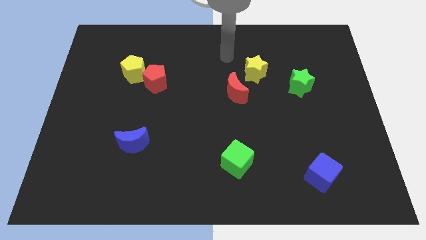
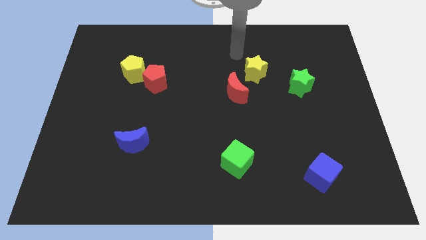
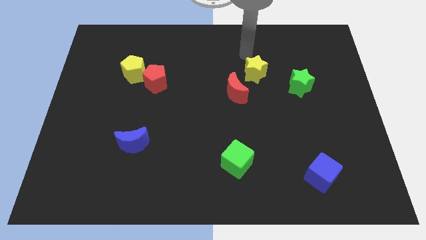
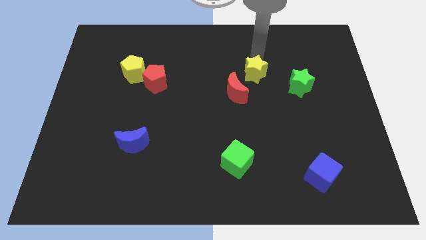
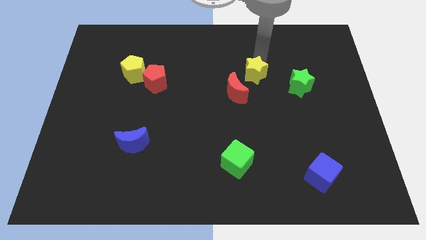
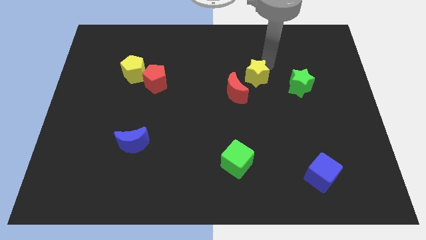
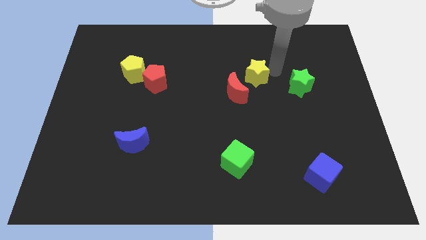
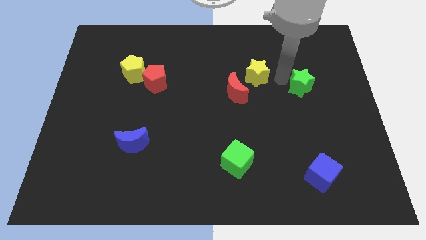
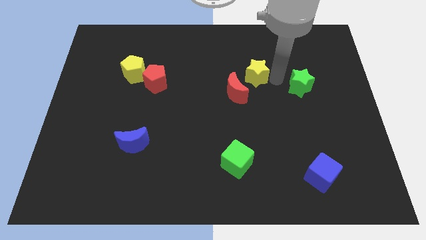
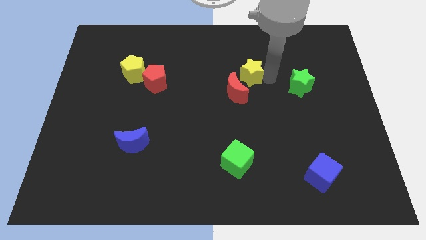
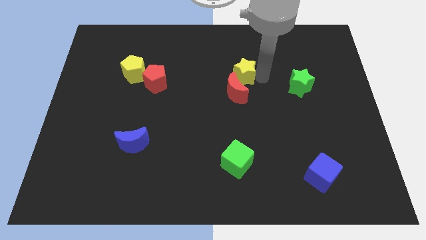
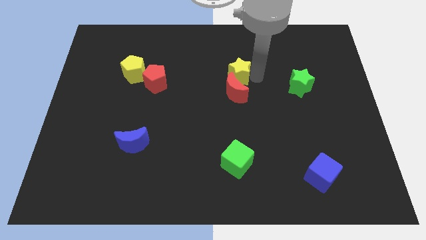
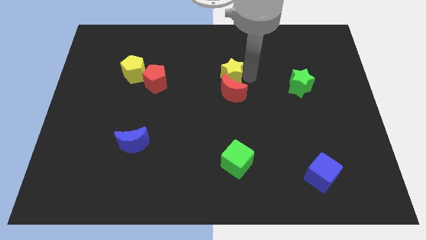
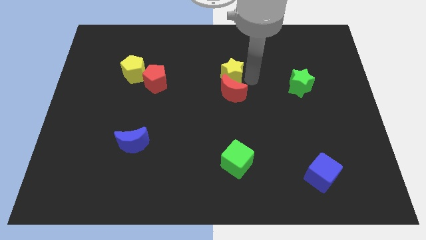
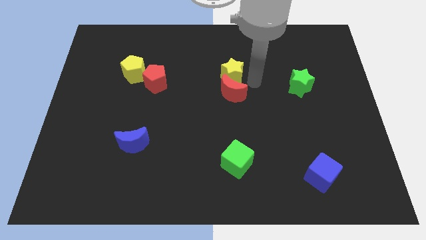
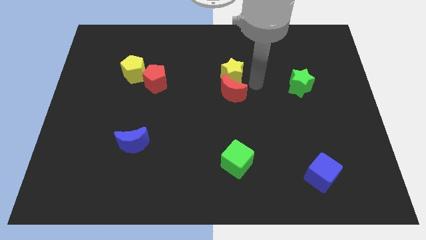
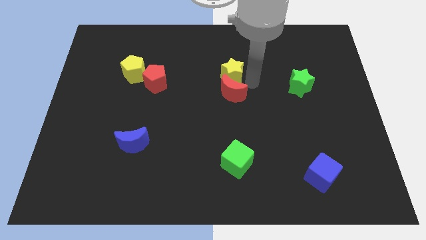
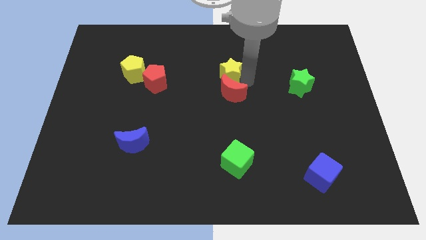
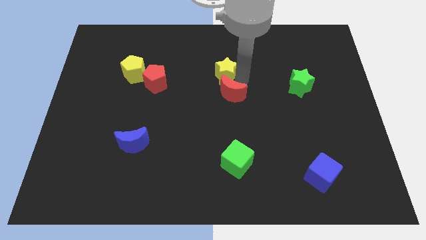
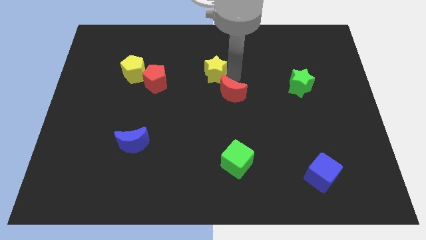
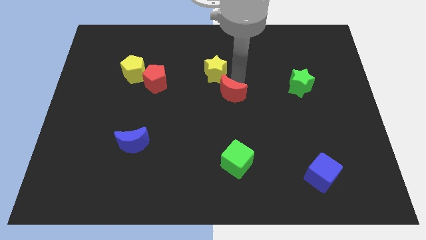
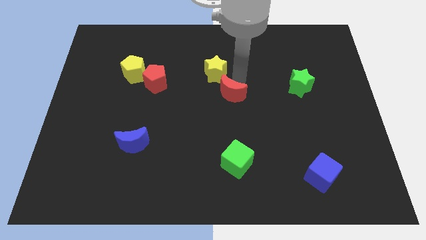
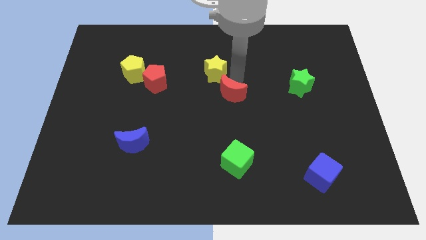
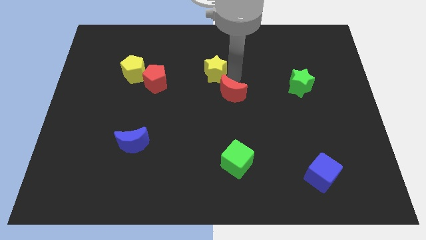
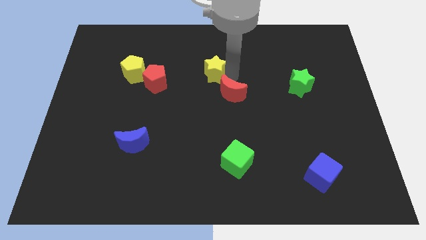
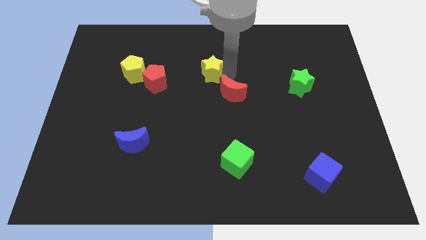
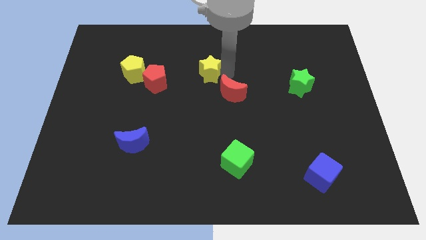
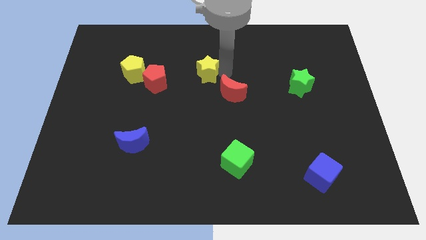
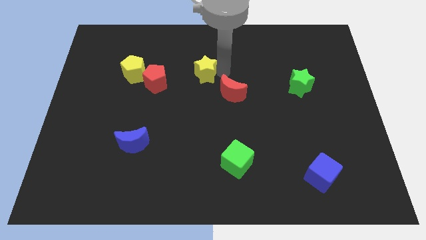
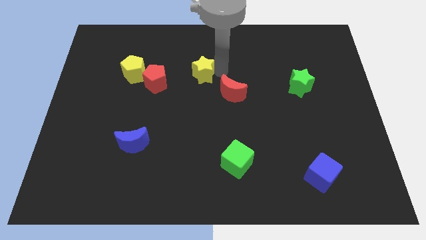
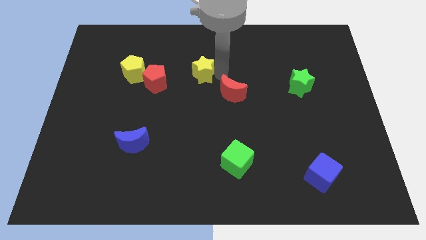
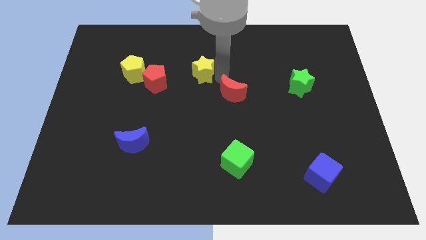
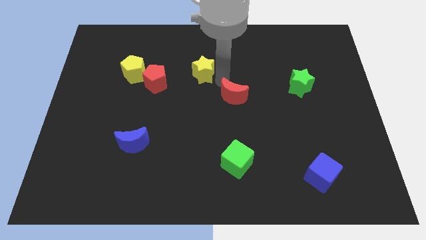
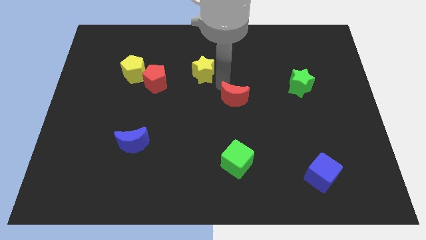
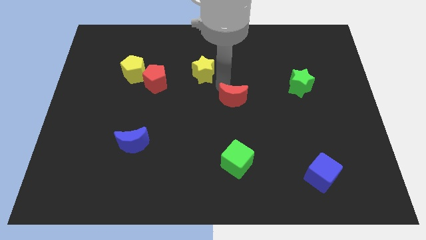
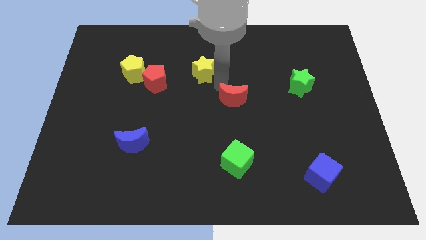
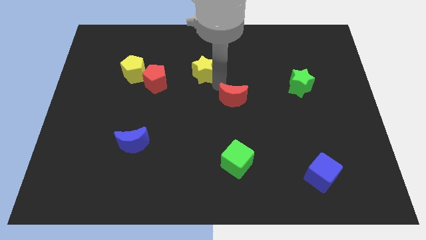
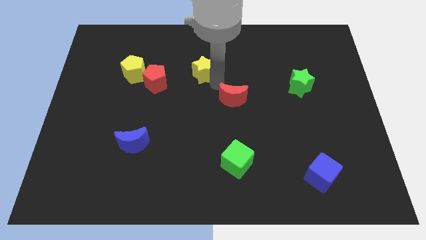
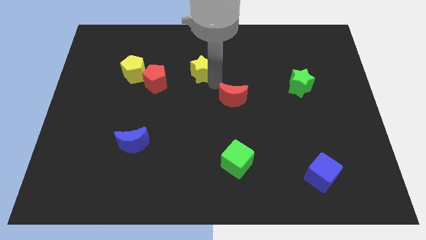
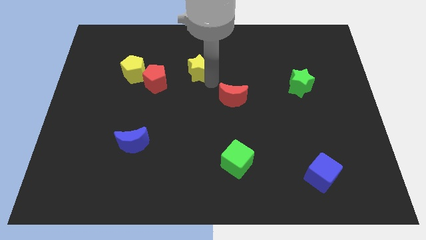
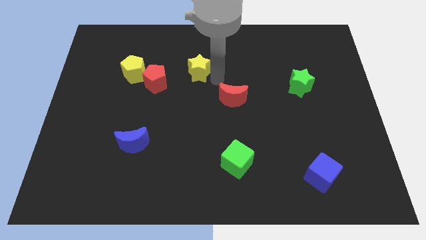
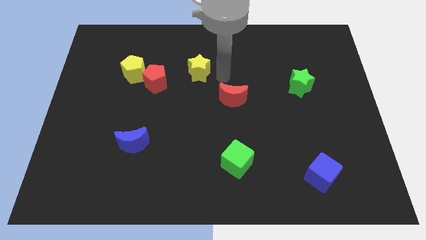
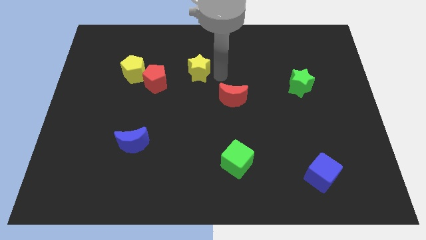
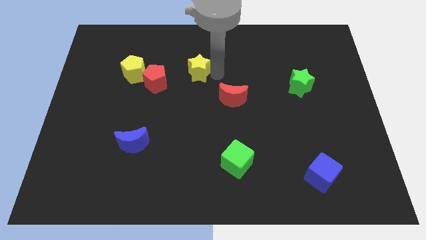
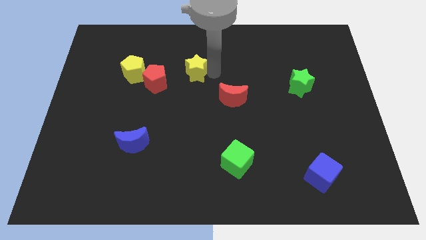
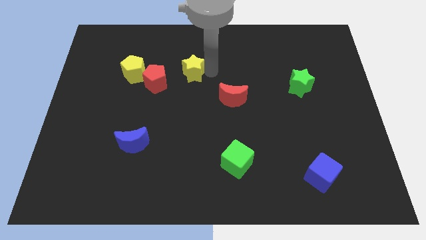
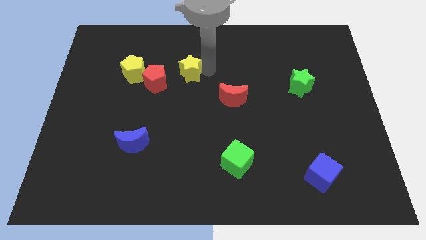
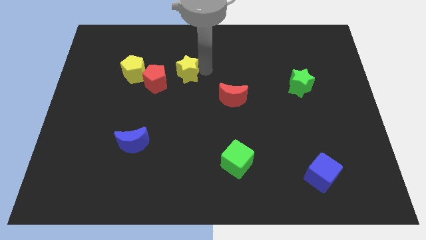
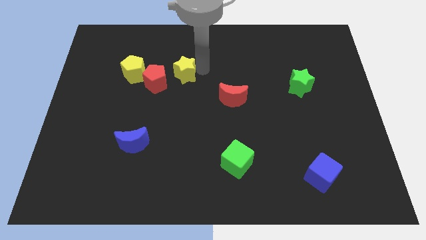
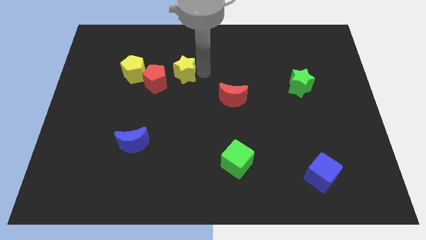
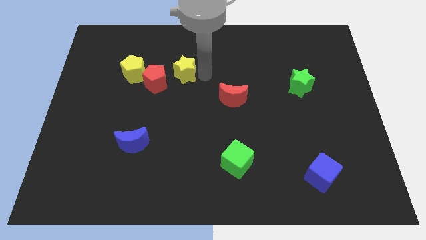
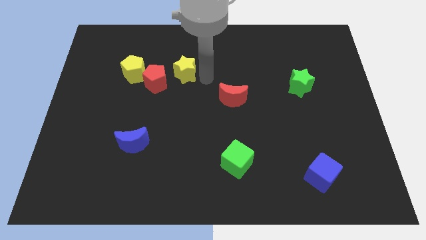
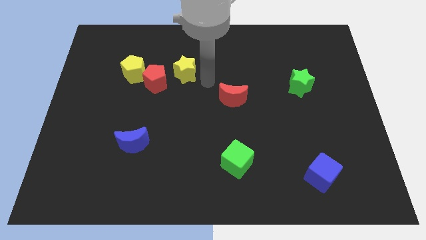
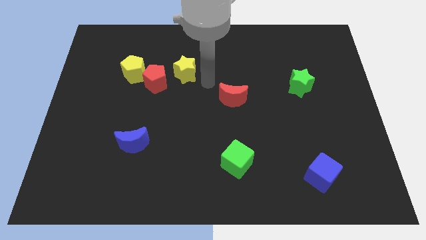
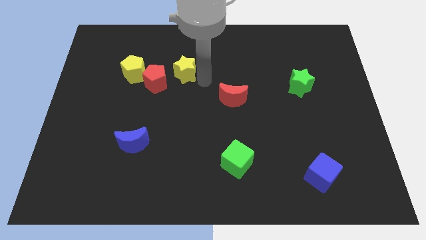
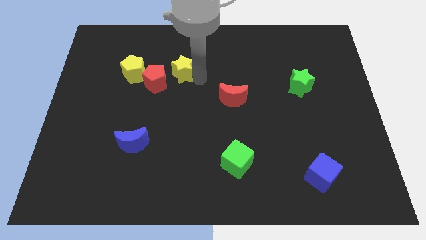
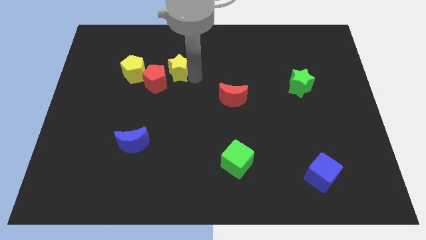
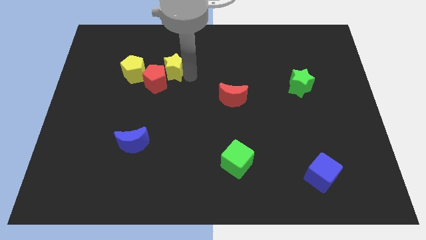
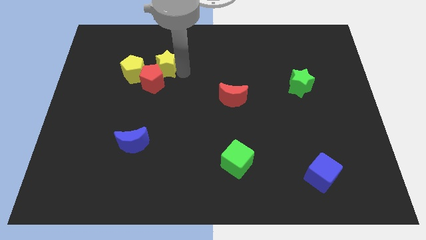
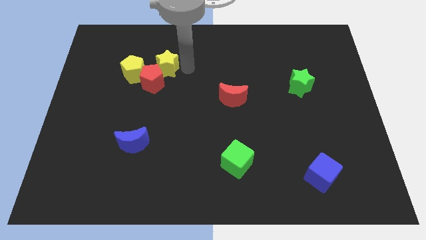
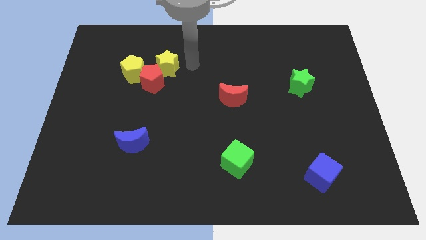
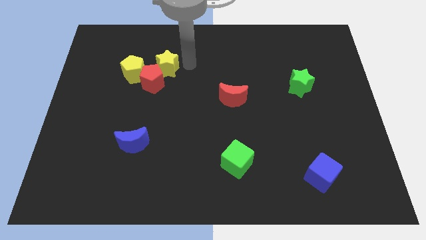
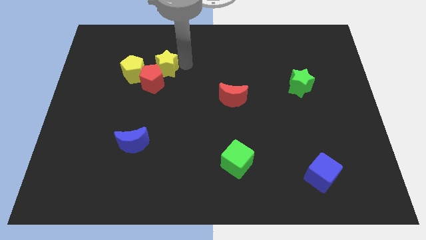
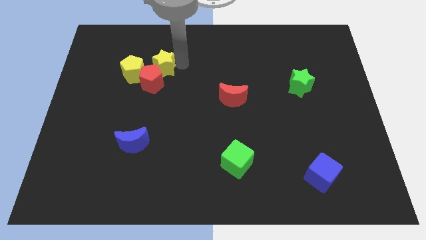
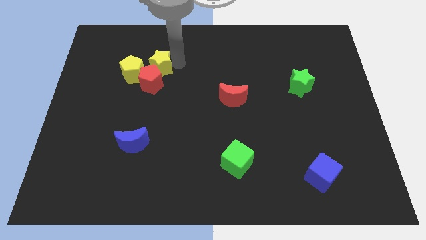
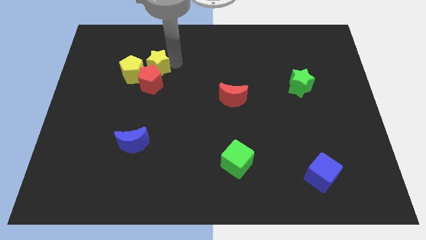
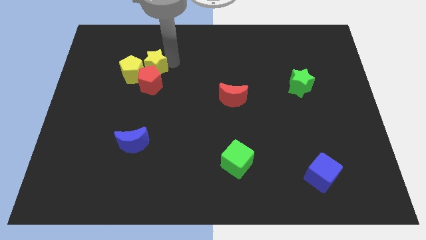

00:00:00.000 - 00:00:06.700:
push the yellow star towards the yellow pentagon

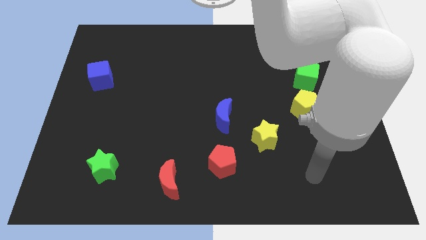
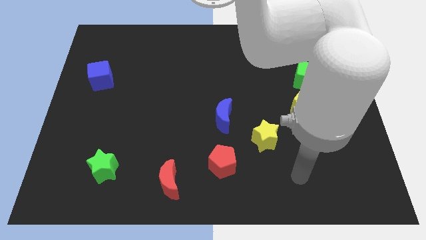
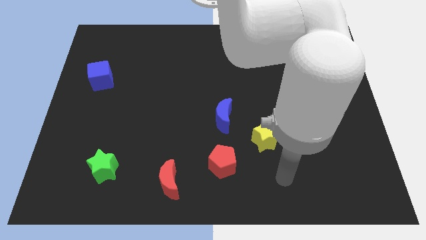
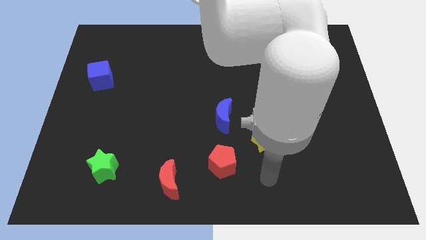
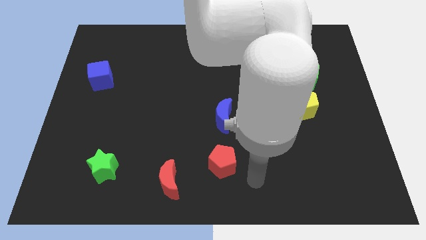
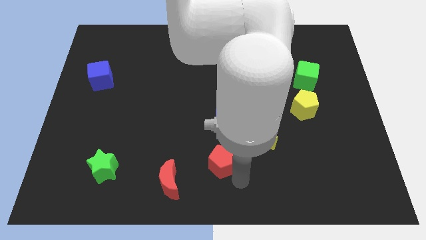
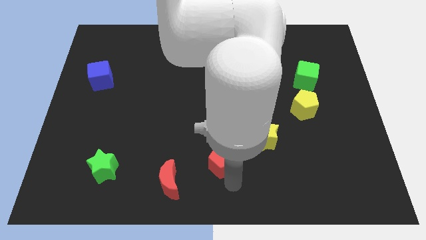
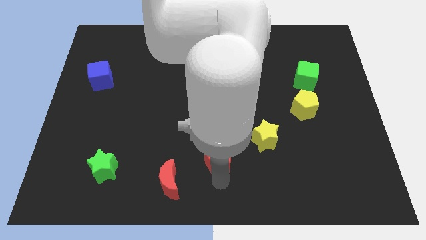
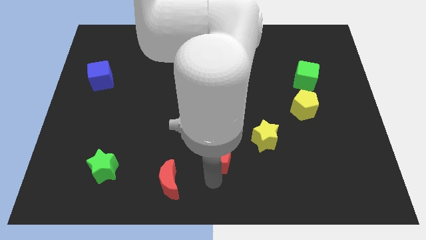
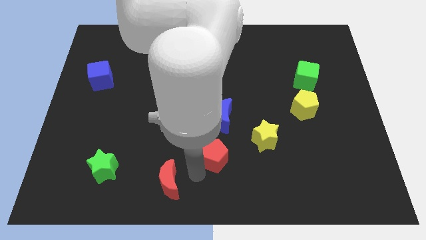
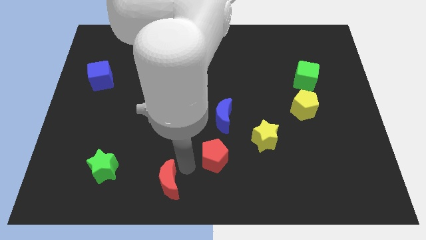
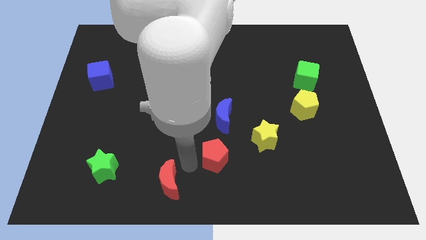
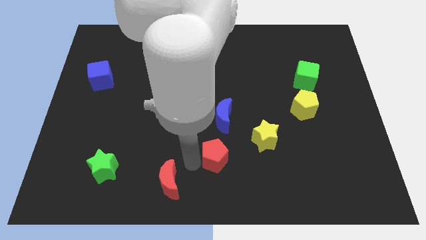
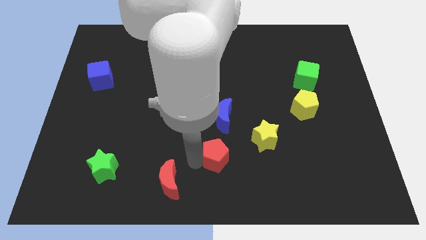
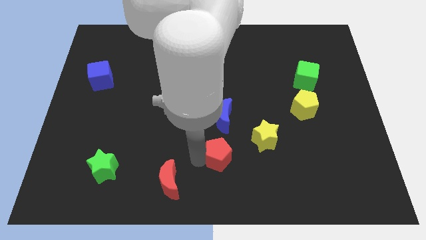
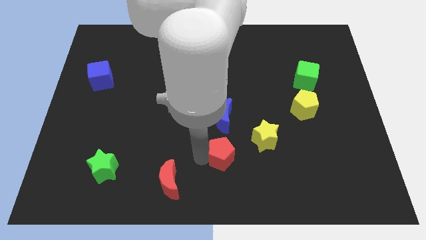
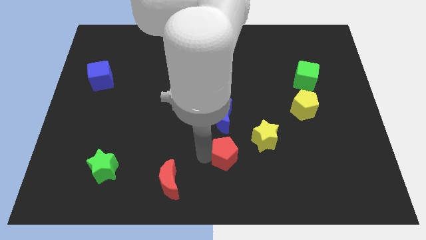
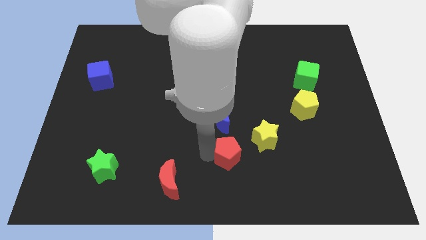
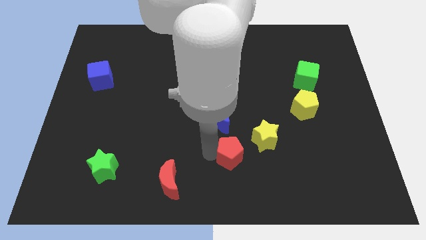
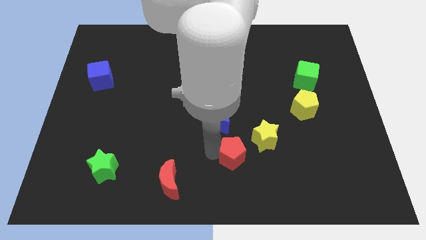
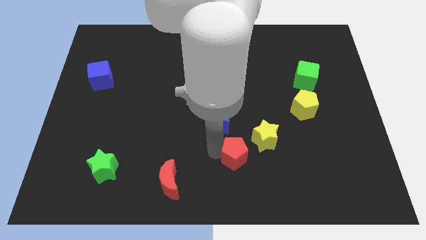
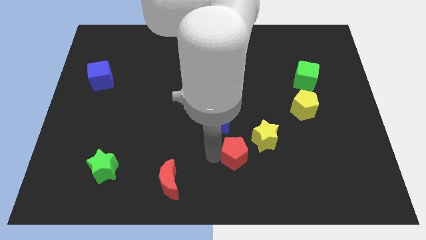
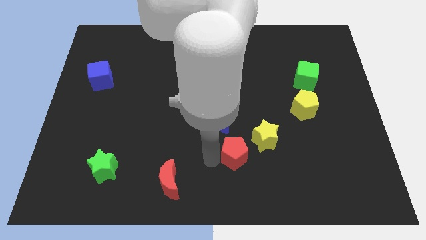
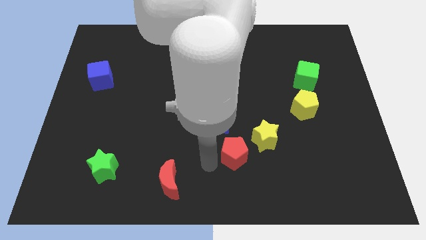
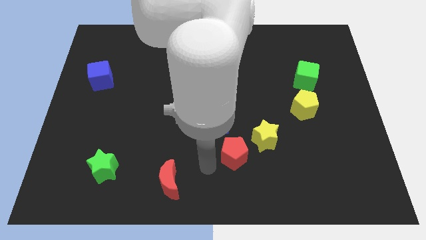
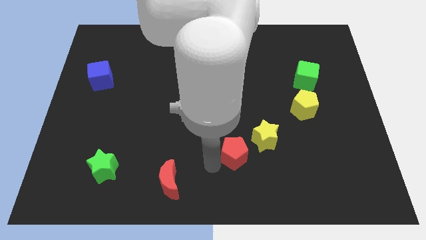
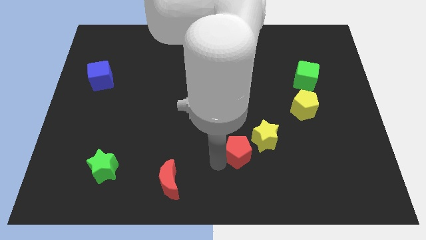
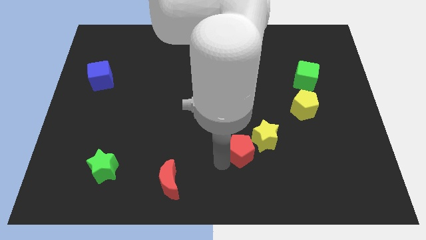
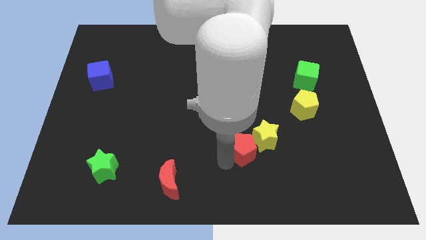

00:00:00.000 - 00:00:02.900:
slide the red pentagon towards the yellow star
